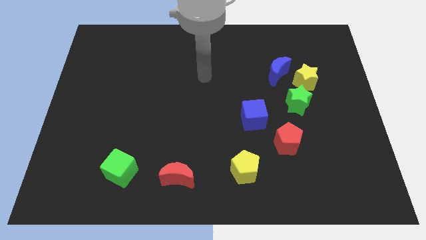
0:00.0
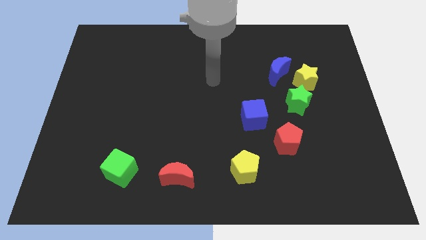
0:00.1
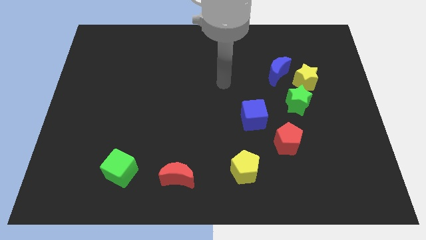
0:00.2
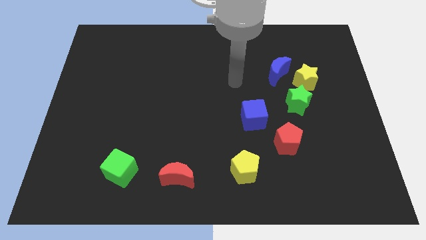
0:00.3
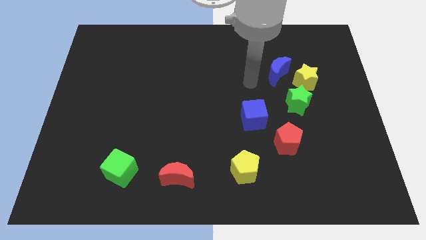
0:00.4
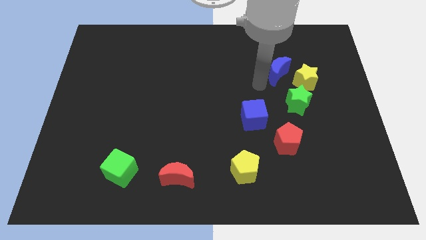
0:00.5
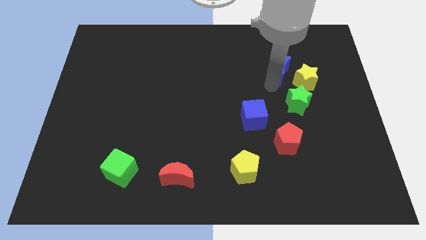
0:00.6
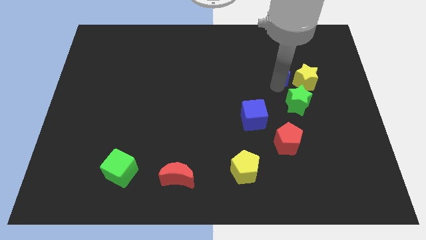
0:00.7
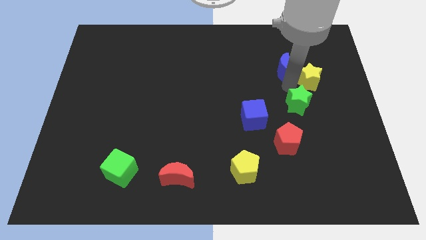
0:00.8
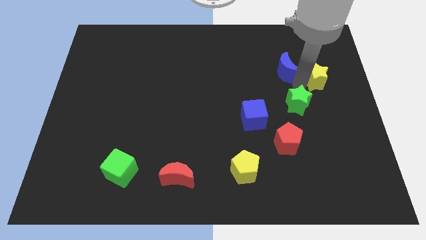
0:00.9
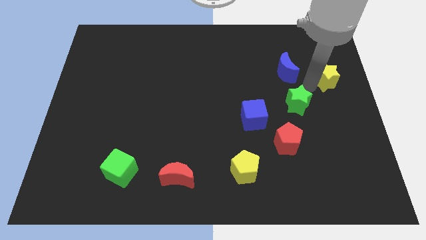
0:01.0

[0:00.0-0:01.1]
move the green star away from the yellow star

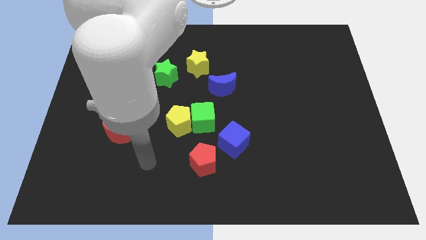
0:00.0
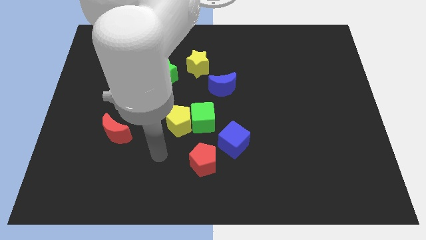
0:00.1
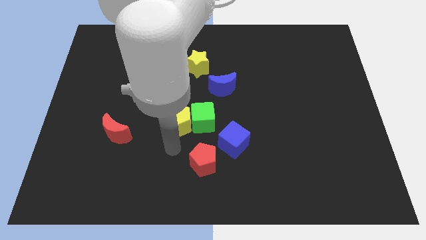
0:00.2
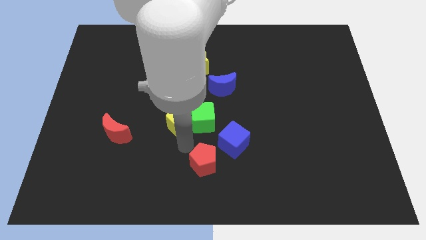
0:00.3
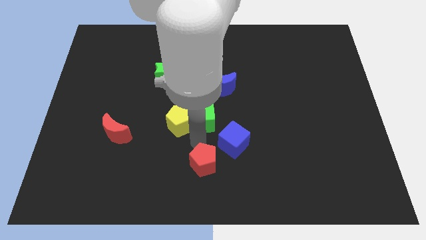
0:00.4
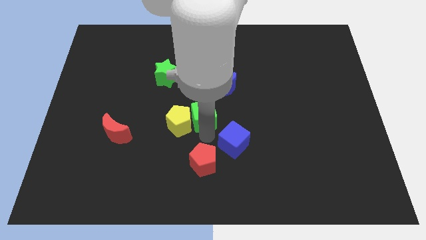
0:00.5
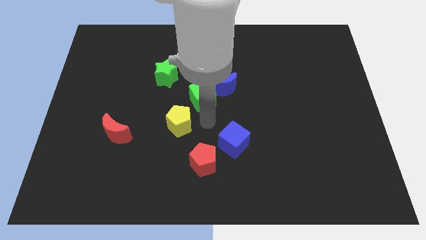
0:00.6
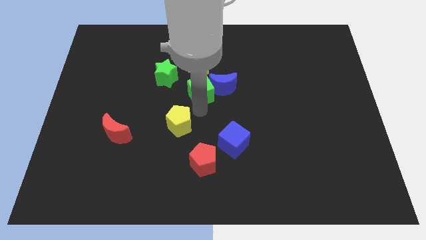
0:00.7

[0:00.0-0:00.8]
move the yellow pentagon away from the green cube

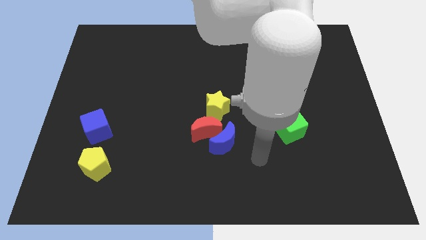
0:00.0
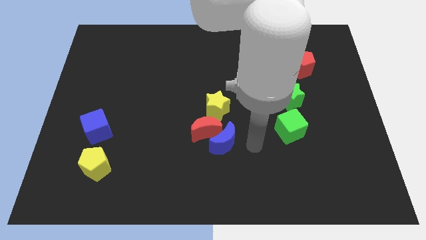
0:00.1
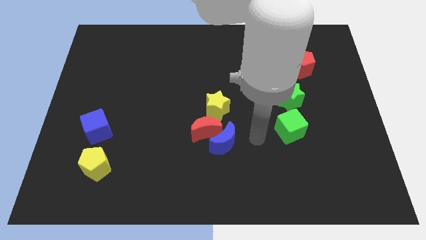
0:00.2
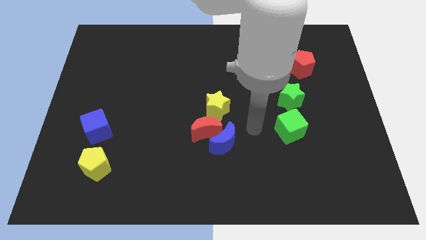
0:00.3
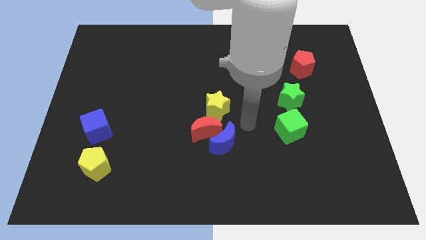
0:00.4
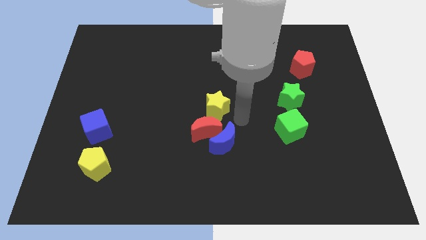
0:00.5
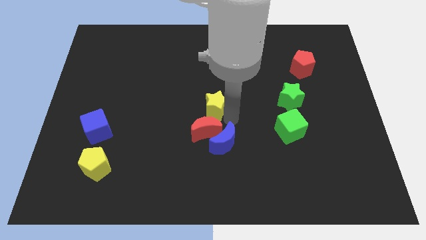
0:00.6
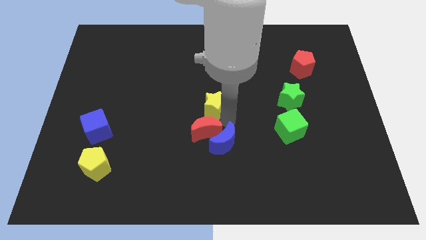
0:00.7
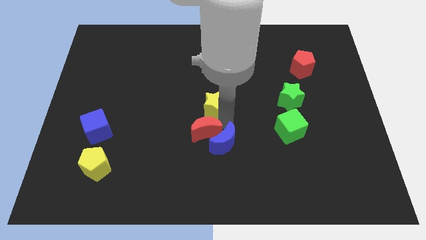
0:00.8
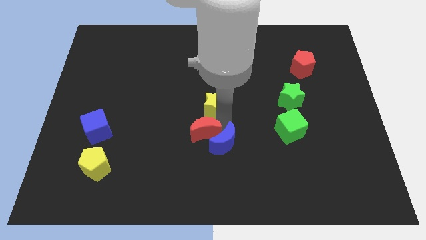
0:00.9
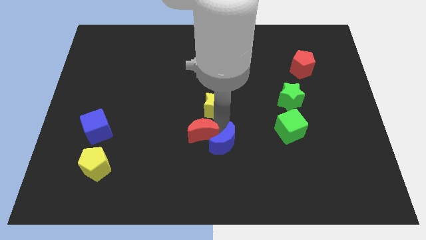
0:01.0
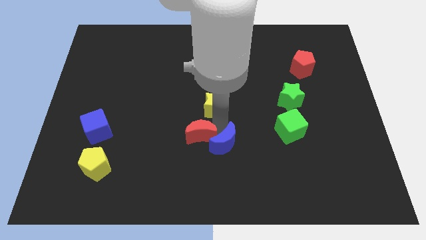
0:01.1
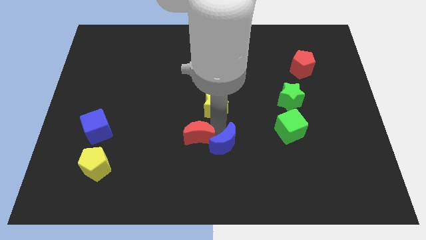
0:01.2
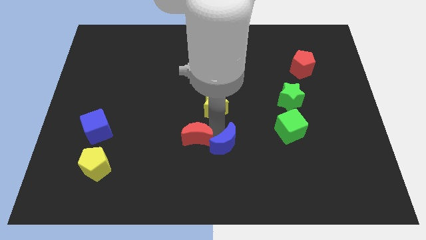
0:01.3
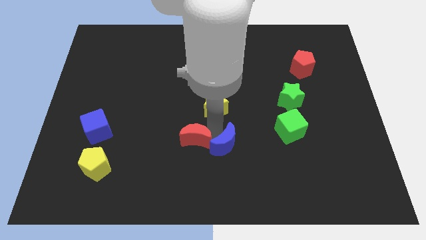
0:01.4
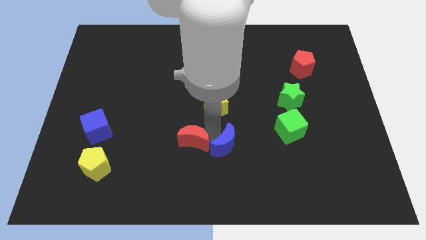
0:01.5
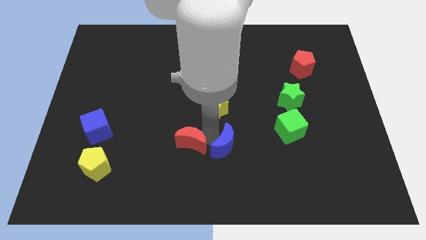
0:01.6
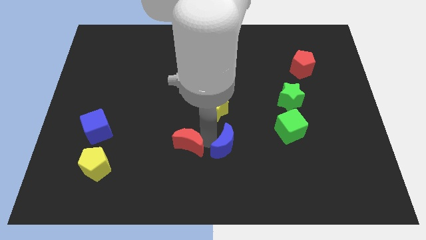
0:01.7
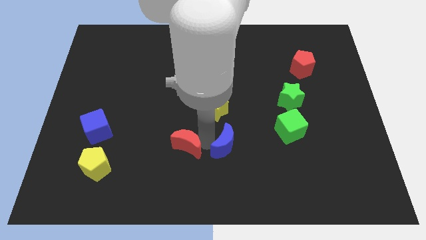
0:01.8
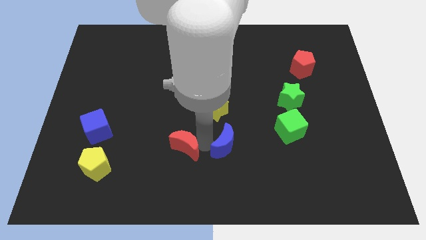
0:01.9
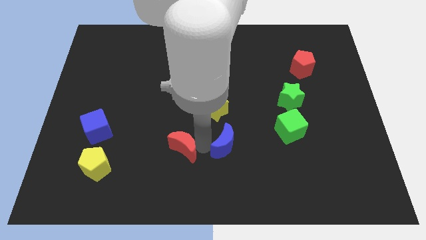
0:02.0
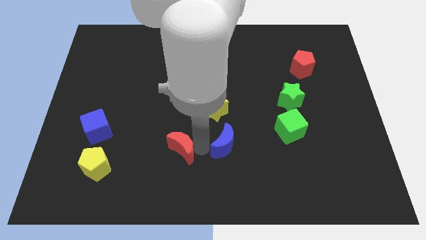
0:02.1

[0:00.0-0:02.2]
move the red moon away from the blue moon and yellow star

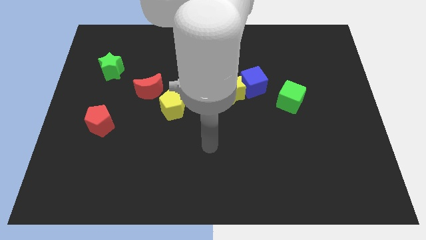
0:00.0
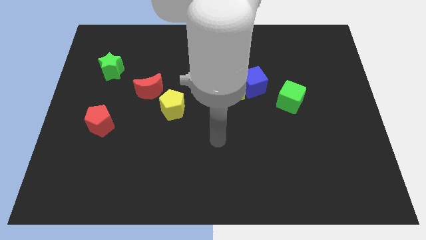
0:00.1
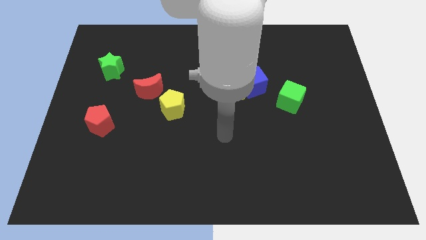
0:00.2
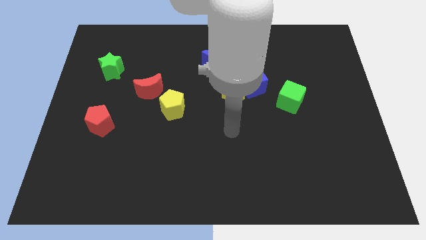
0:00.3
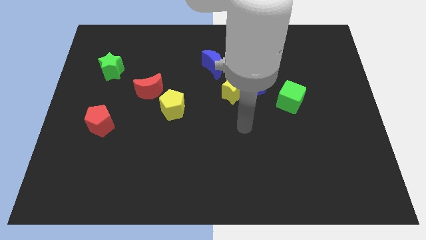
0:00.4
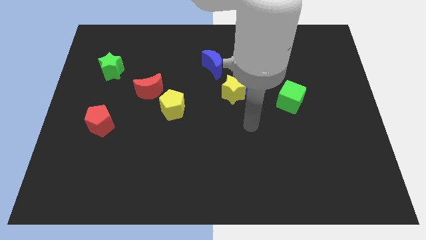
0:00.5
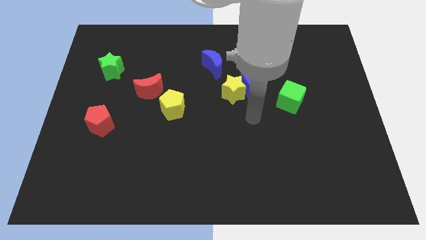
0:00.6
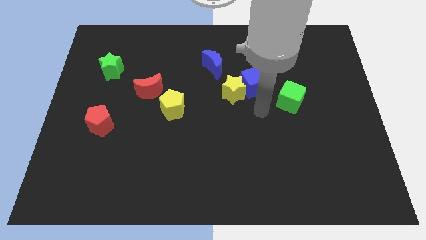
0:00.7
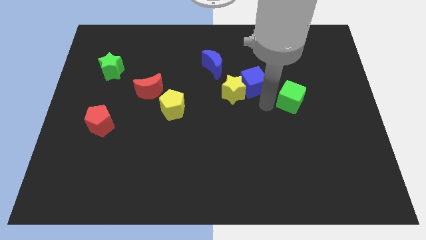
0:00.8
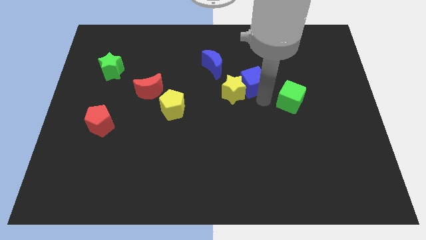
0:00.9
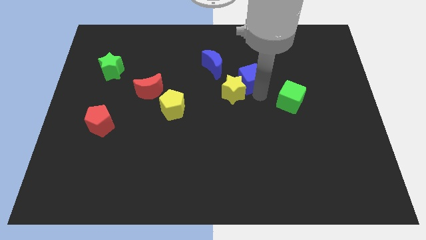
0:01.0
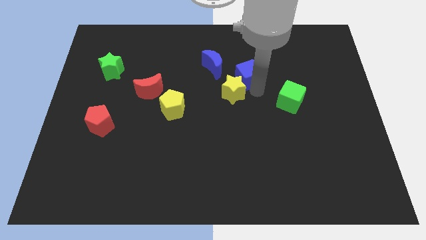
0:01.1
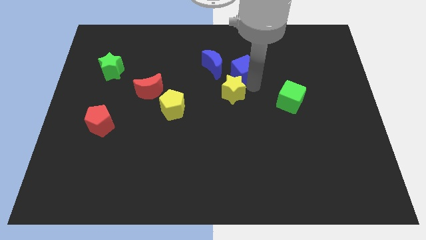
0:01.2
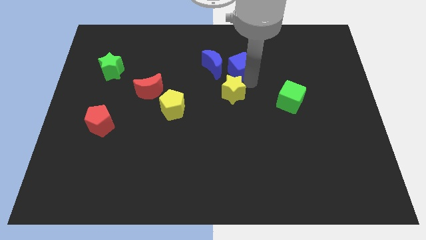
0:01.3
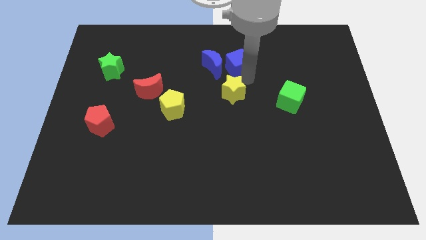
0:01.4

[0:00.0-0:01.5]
pull the blue cube apart from the yellow star and green cube

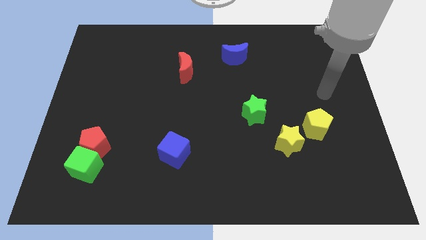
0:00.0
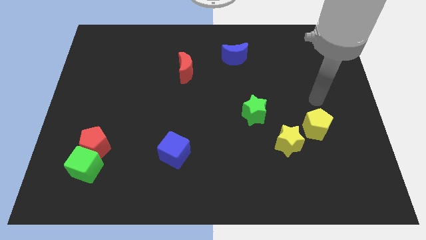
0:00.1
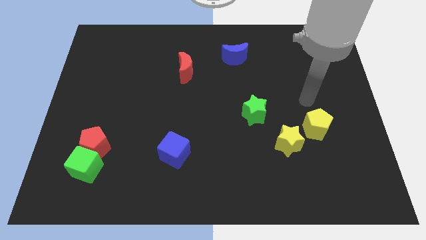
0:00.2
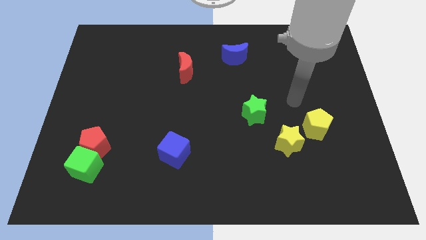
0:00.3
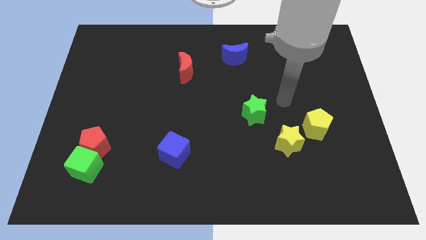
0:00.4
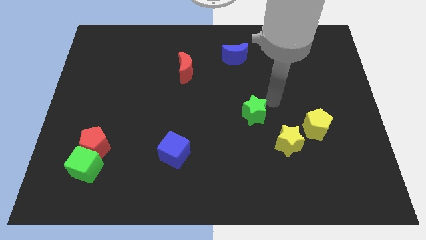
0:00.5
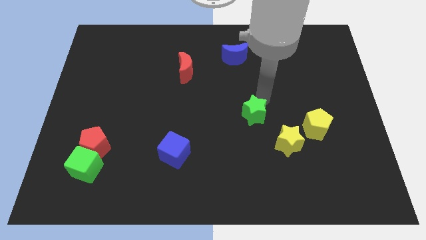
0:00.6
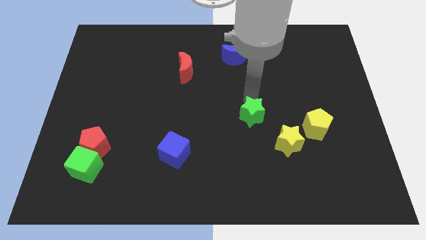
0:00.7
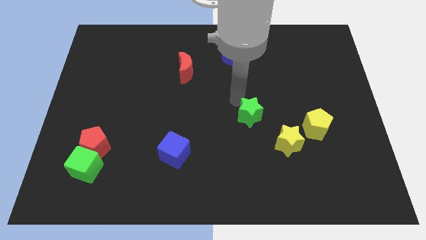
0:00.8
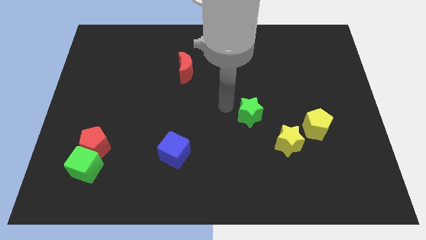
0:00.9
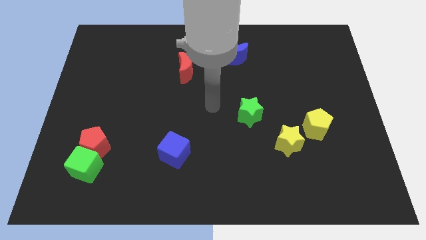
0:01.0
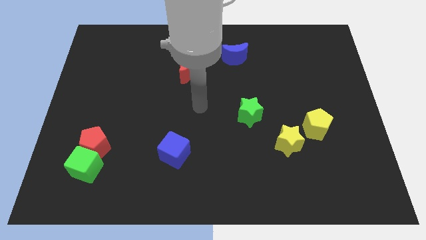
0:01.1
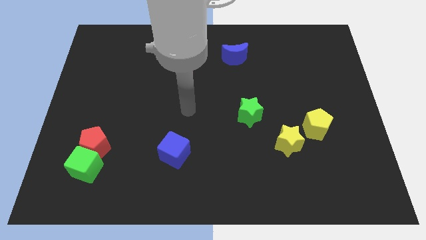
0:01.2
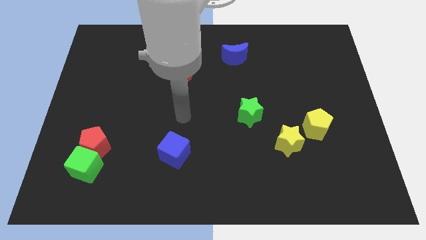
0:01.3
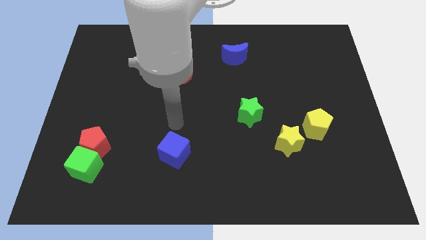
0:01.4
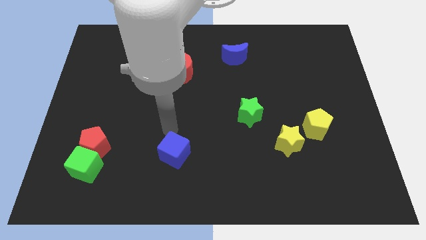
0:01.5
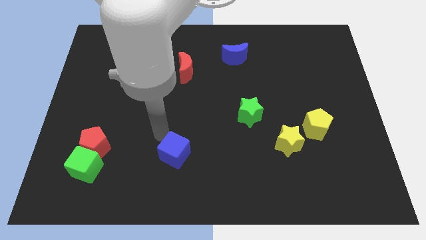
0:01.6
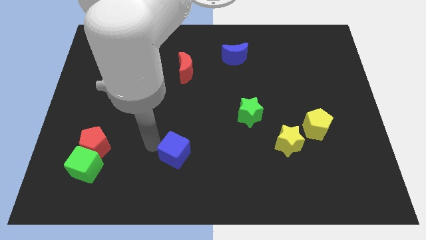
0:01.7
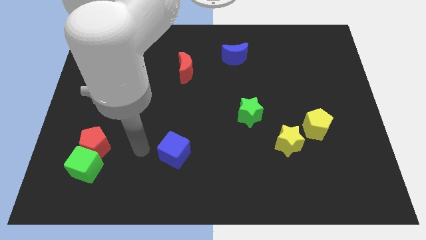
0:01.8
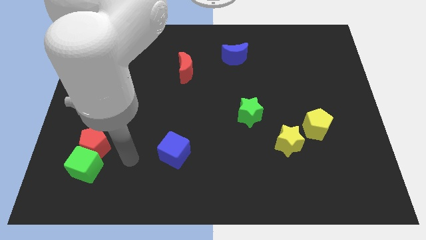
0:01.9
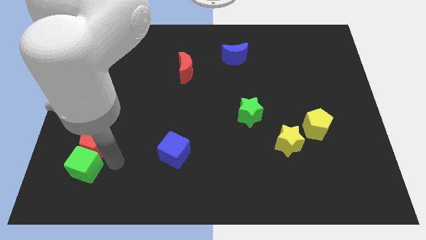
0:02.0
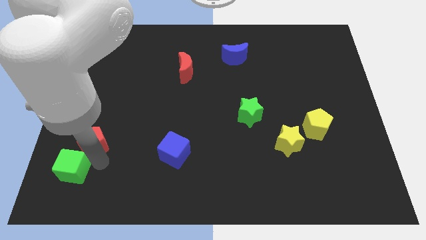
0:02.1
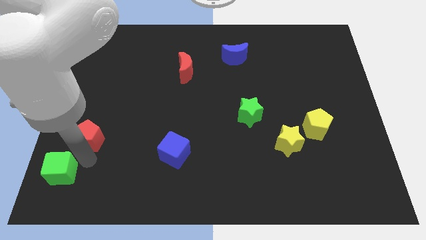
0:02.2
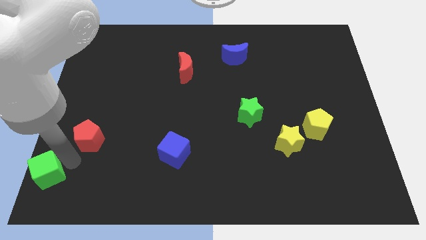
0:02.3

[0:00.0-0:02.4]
separate the red pentagon from the green cube

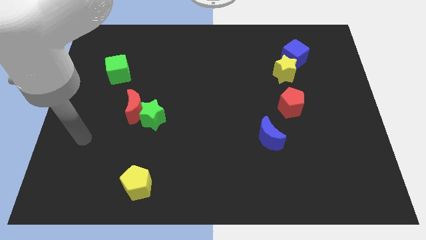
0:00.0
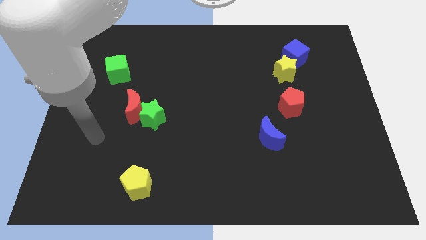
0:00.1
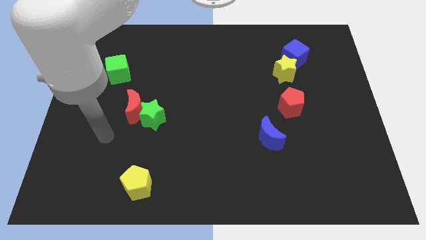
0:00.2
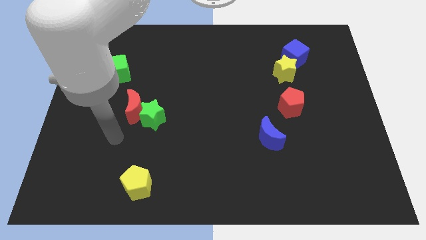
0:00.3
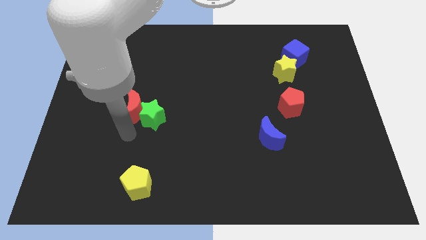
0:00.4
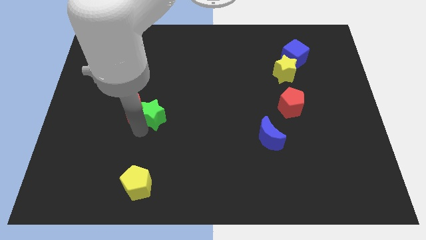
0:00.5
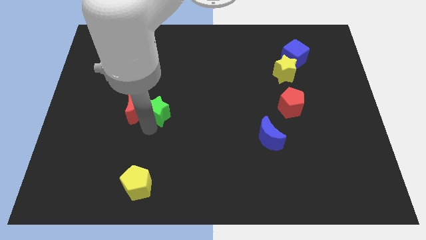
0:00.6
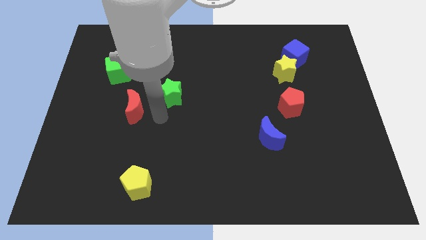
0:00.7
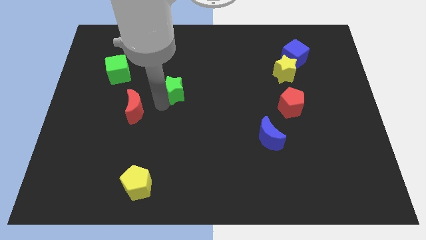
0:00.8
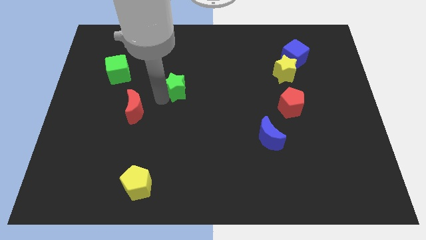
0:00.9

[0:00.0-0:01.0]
pull the red moon apart from the green star

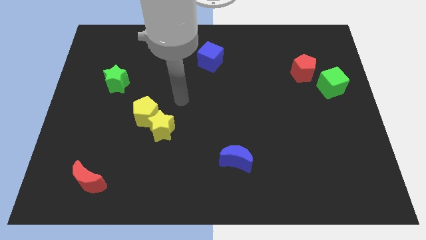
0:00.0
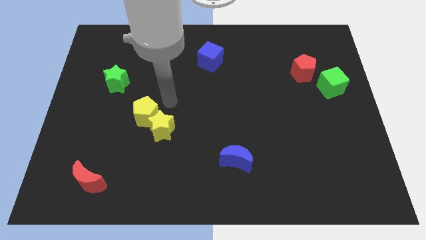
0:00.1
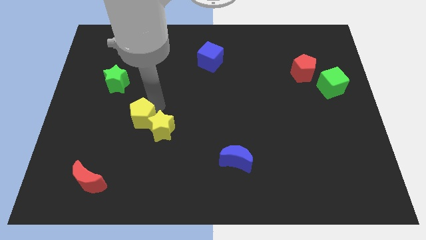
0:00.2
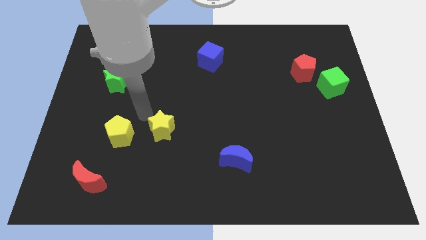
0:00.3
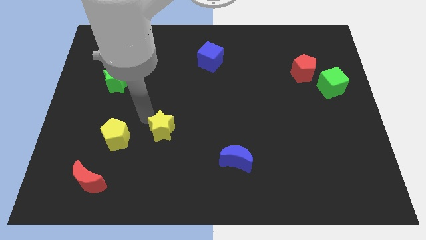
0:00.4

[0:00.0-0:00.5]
move the yellow star away from the yellow pentagon
